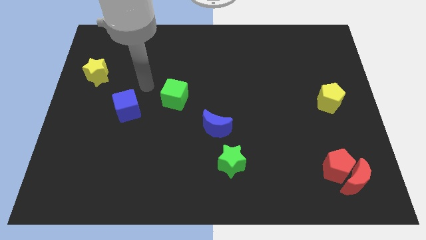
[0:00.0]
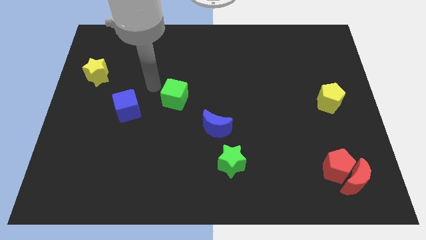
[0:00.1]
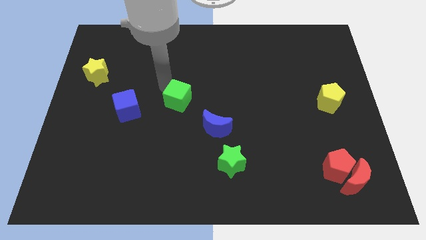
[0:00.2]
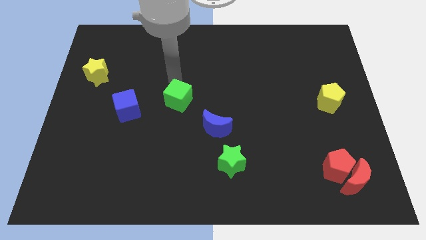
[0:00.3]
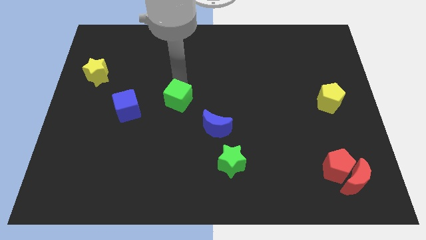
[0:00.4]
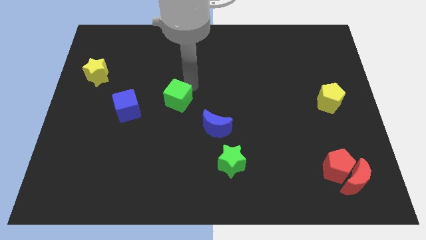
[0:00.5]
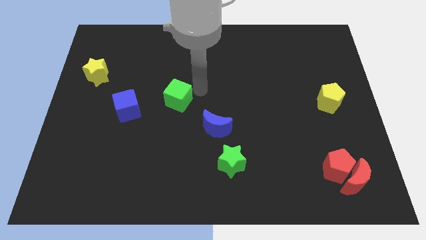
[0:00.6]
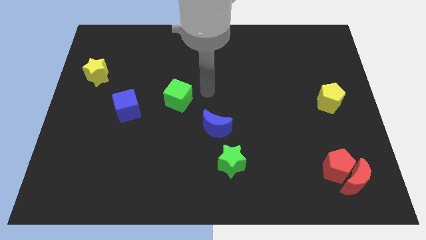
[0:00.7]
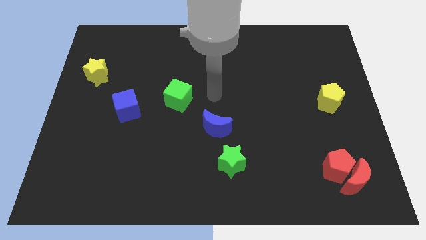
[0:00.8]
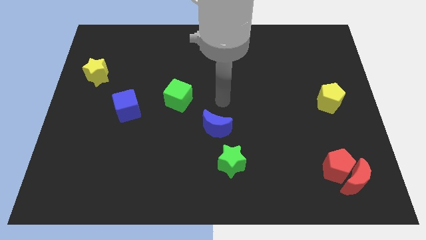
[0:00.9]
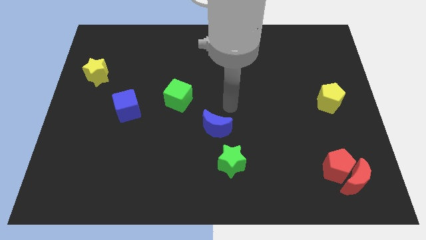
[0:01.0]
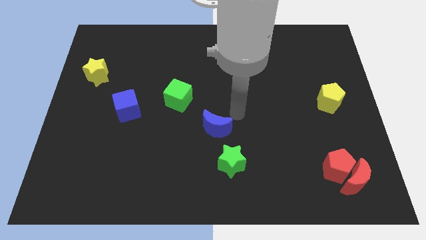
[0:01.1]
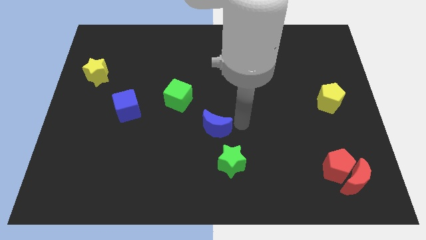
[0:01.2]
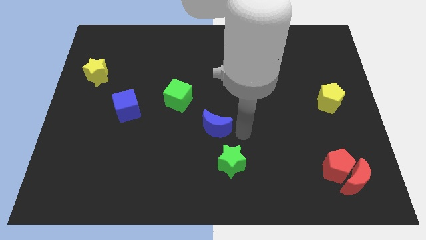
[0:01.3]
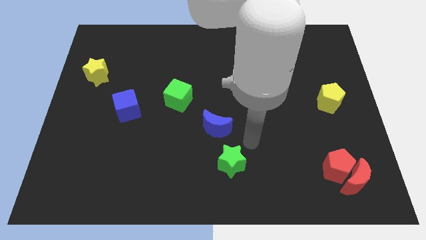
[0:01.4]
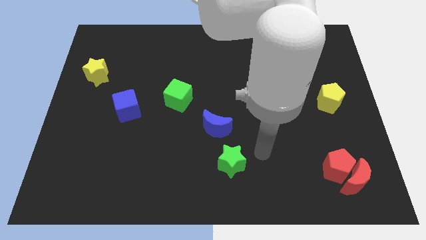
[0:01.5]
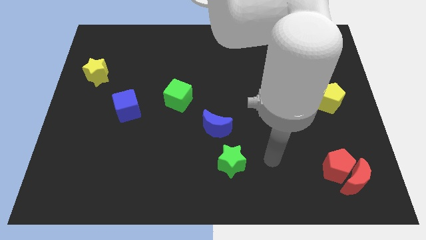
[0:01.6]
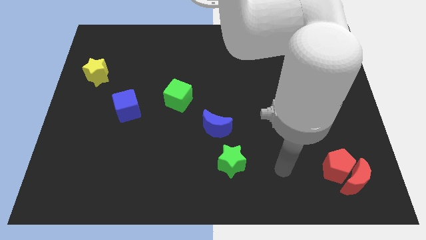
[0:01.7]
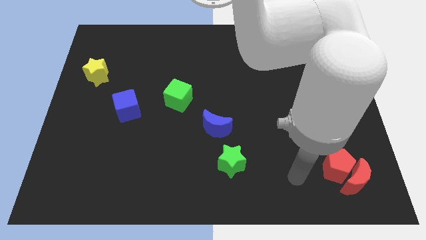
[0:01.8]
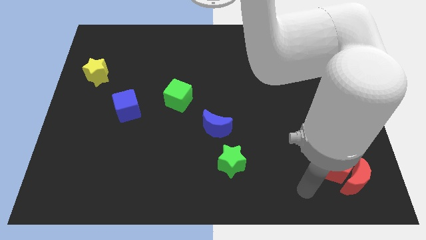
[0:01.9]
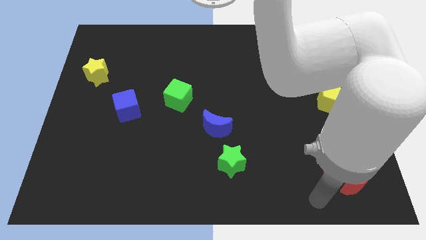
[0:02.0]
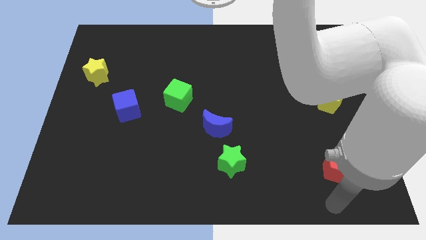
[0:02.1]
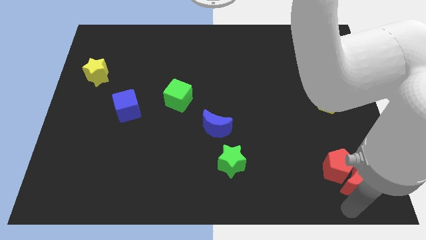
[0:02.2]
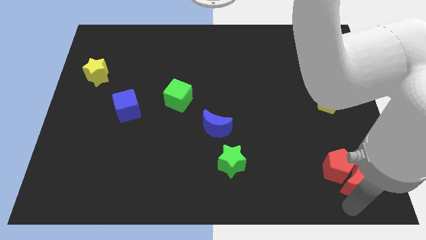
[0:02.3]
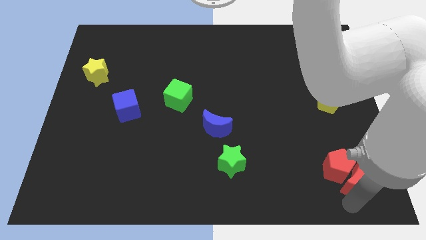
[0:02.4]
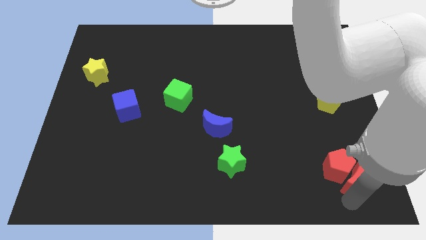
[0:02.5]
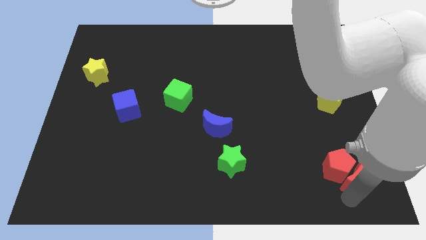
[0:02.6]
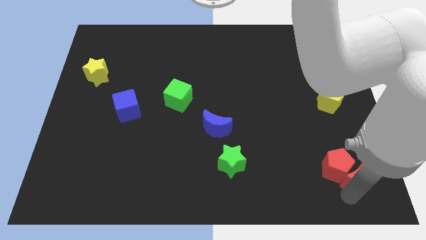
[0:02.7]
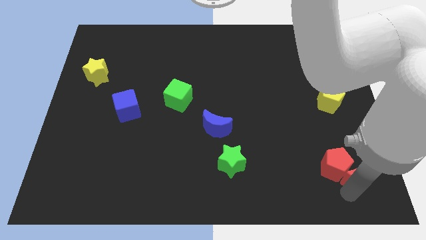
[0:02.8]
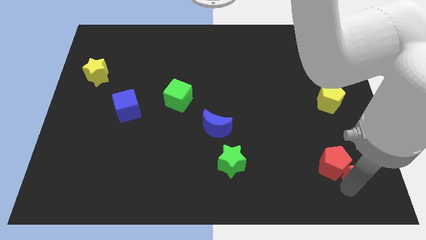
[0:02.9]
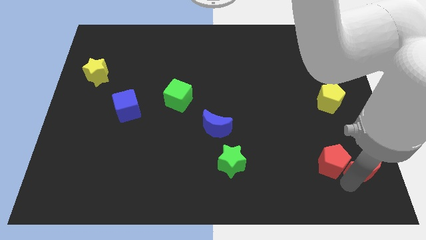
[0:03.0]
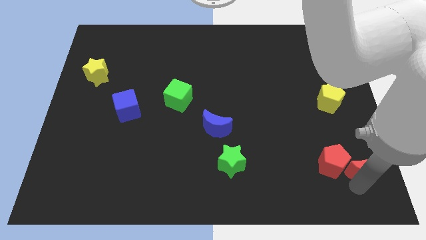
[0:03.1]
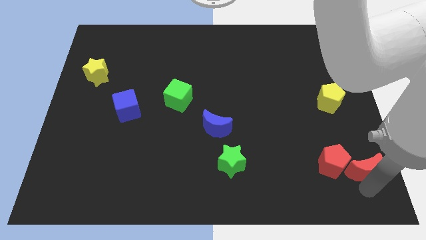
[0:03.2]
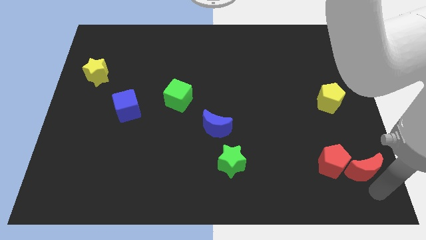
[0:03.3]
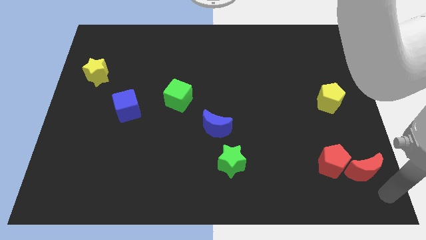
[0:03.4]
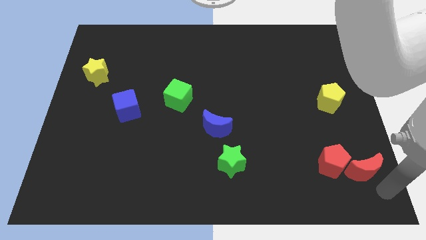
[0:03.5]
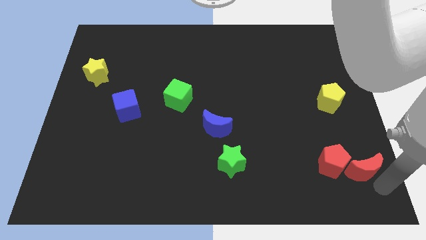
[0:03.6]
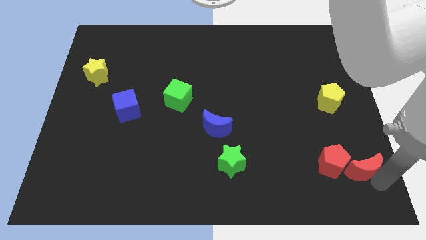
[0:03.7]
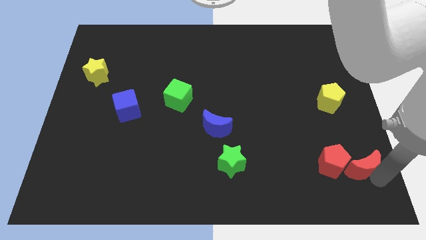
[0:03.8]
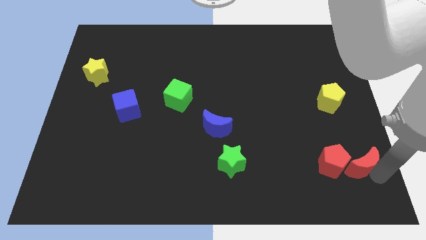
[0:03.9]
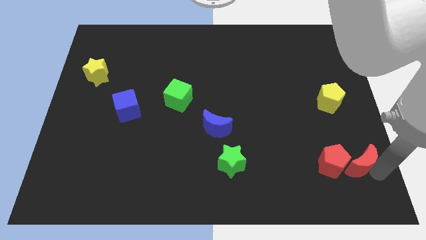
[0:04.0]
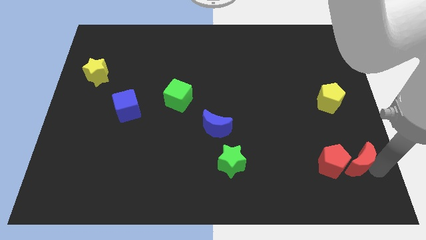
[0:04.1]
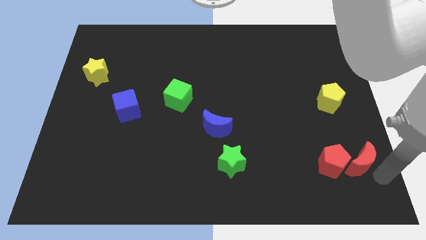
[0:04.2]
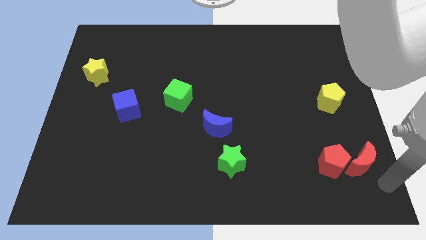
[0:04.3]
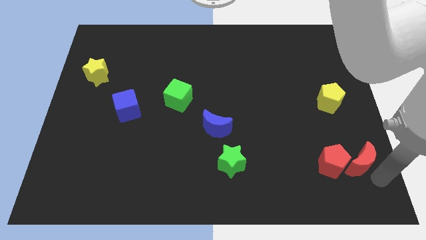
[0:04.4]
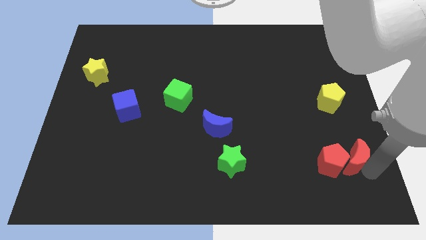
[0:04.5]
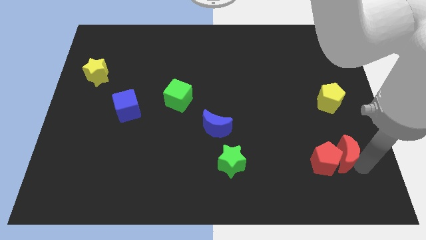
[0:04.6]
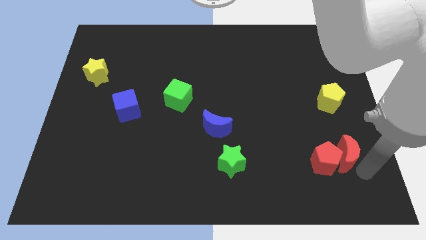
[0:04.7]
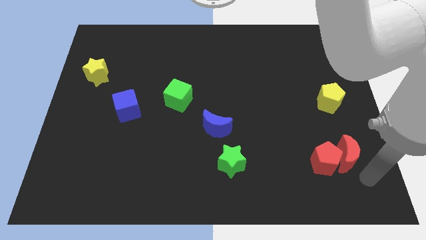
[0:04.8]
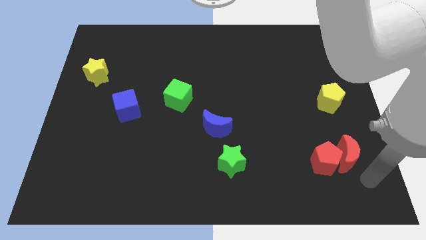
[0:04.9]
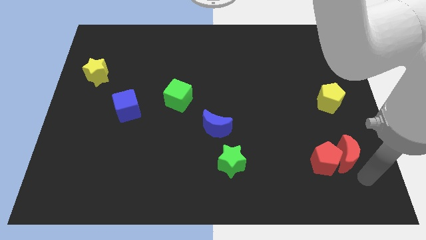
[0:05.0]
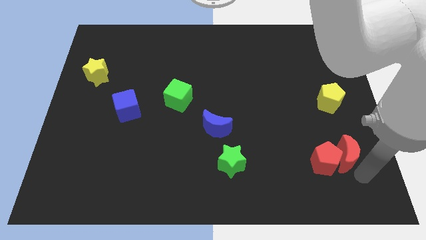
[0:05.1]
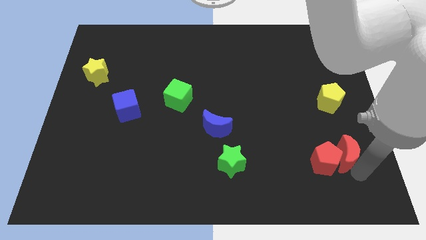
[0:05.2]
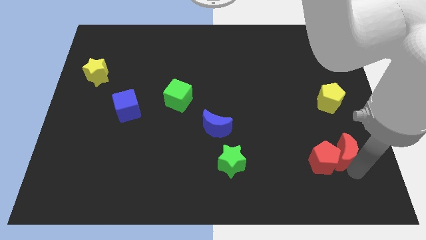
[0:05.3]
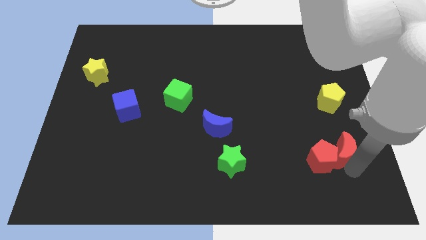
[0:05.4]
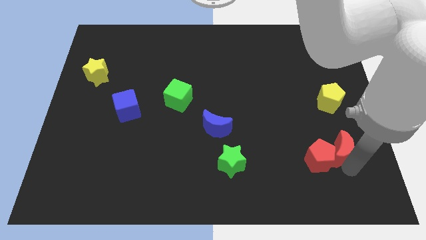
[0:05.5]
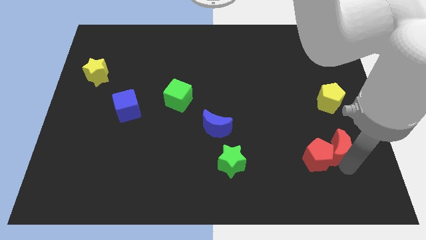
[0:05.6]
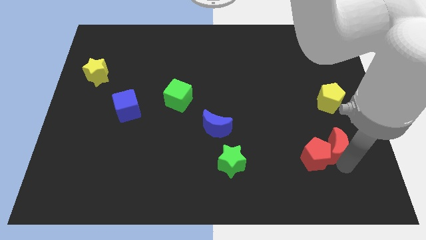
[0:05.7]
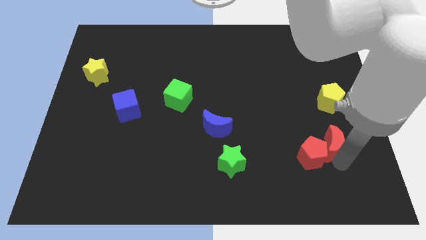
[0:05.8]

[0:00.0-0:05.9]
push the red moon diagonally upwards and to the left a little

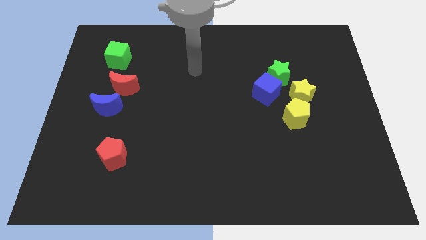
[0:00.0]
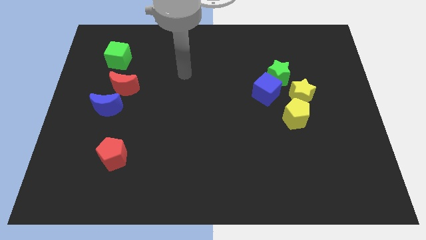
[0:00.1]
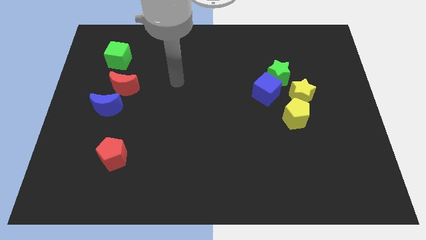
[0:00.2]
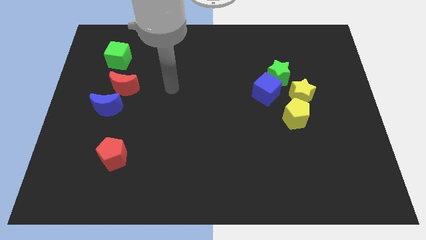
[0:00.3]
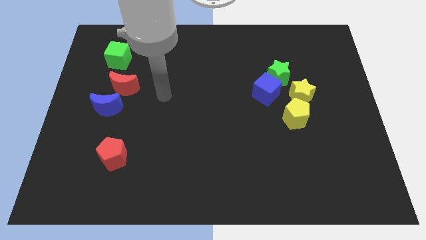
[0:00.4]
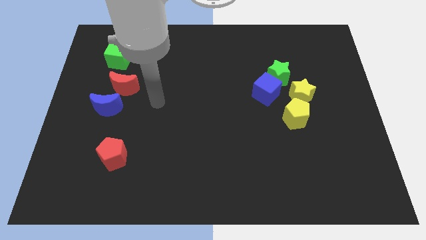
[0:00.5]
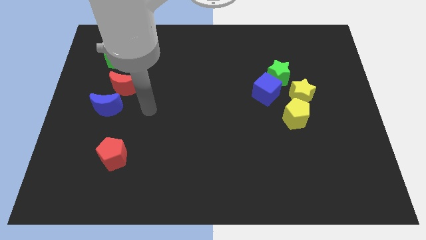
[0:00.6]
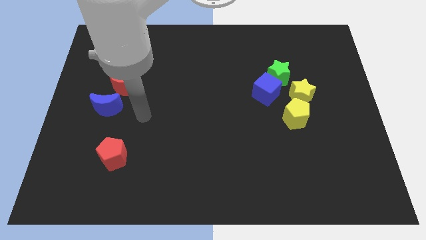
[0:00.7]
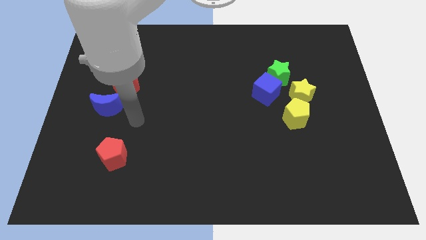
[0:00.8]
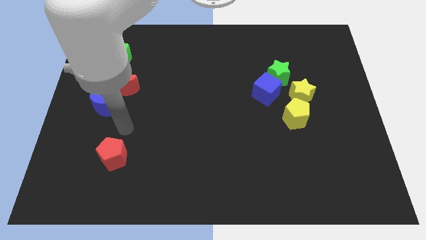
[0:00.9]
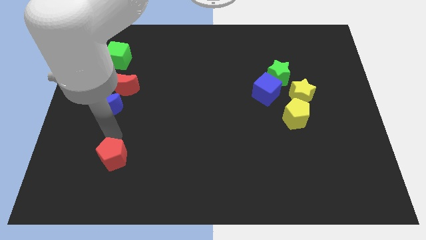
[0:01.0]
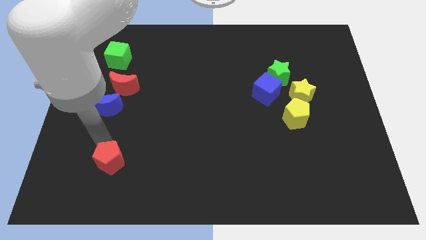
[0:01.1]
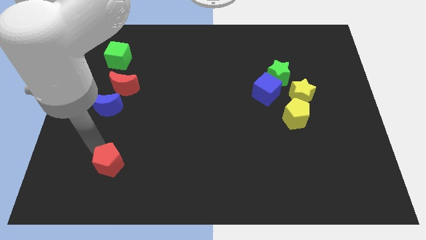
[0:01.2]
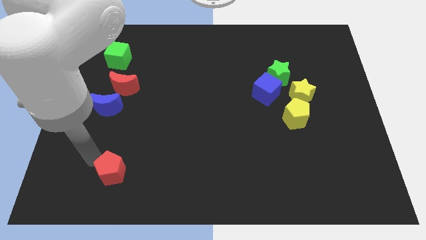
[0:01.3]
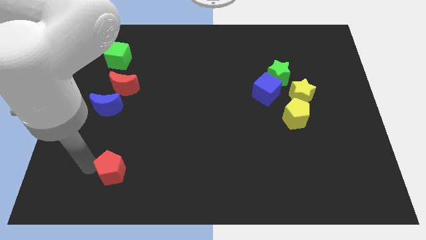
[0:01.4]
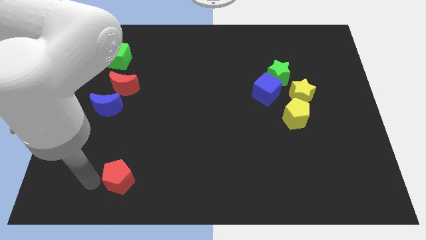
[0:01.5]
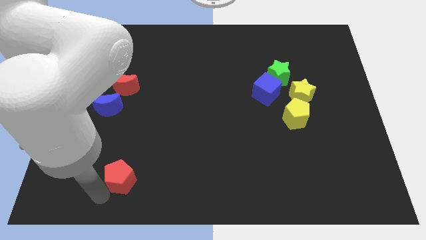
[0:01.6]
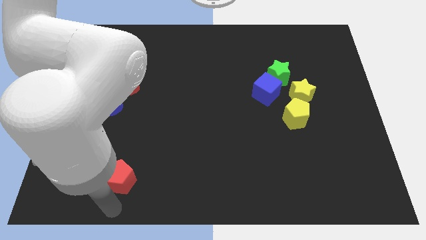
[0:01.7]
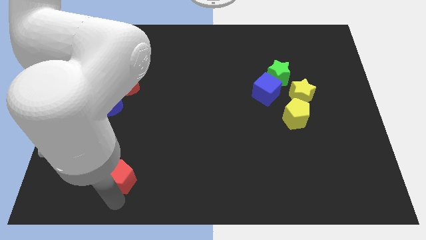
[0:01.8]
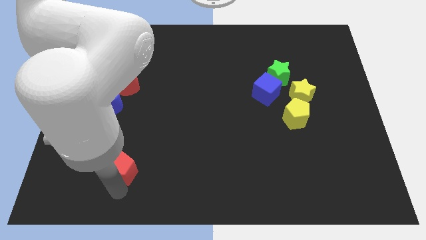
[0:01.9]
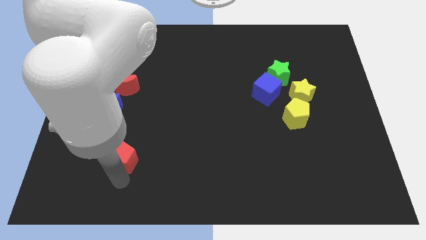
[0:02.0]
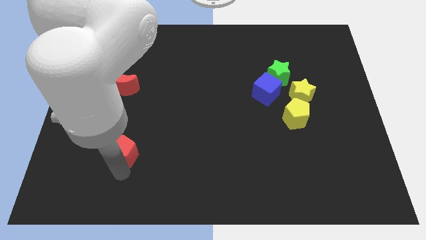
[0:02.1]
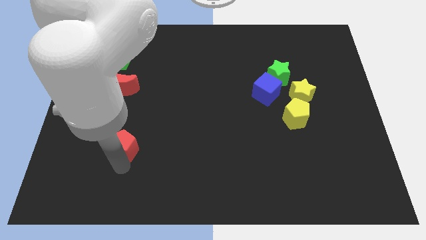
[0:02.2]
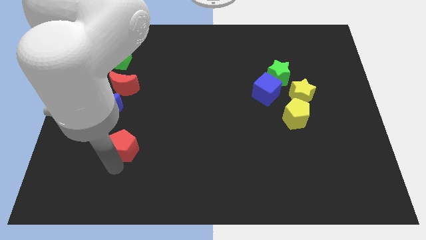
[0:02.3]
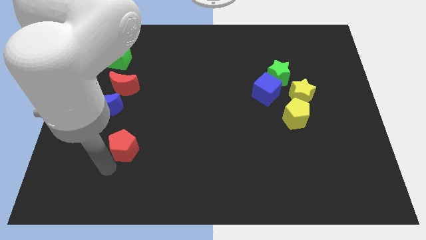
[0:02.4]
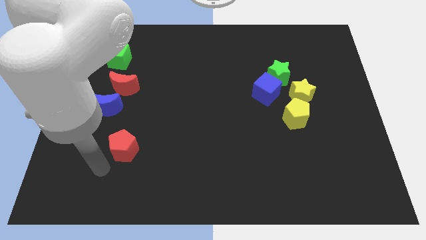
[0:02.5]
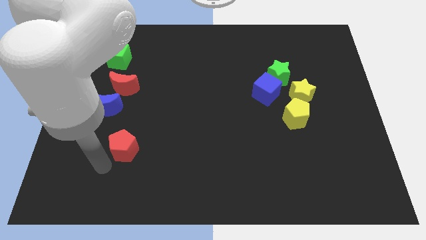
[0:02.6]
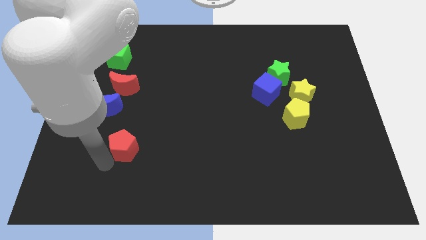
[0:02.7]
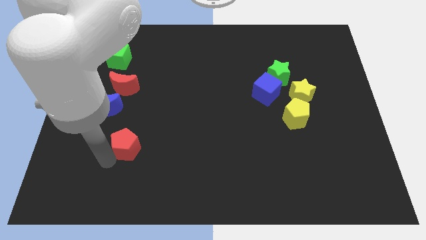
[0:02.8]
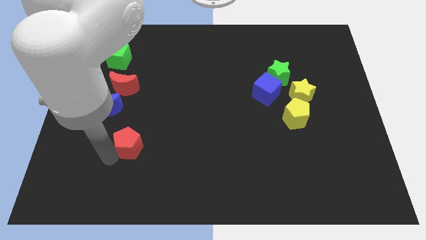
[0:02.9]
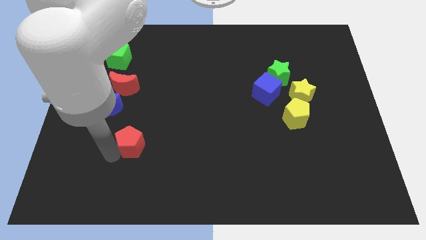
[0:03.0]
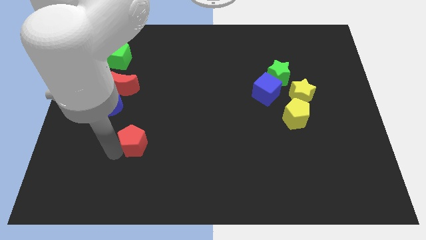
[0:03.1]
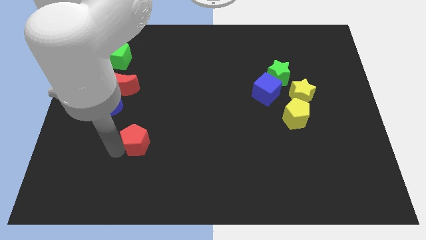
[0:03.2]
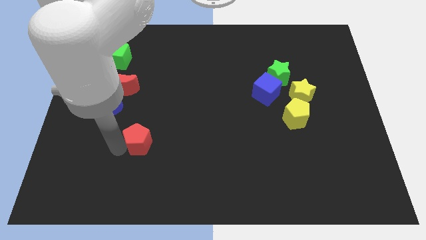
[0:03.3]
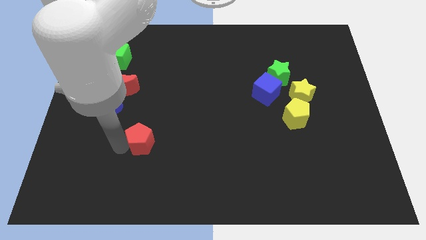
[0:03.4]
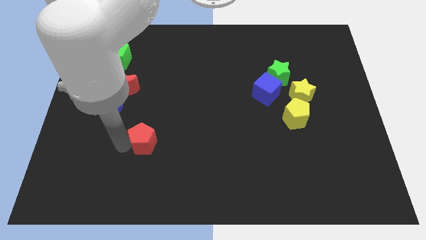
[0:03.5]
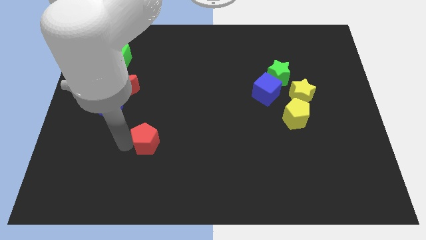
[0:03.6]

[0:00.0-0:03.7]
slide the red pentagon somewhat diagonally up and to the right
